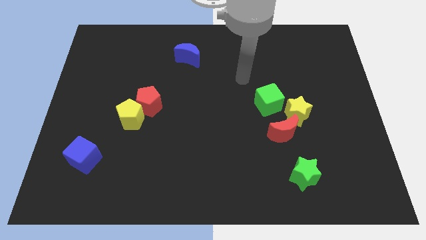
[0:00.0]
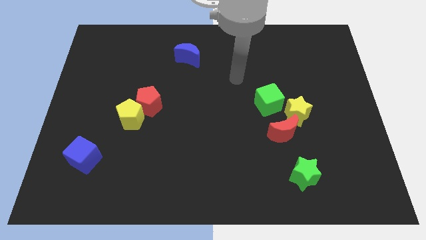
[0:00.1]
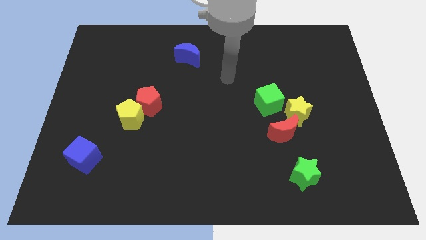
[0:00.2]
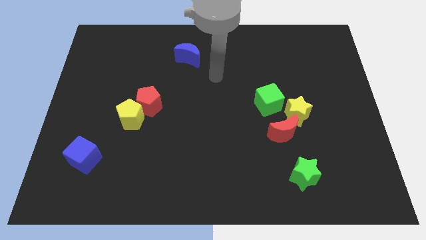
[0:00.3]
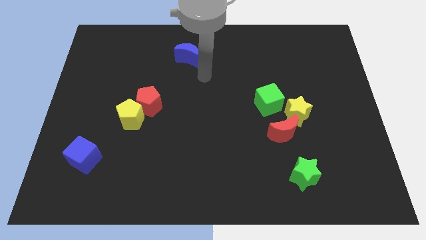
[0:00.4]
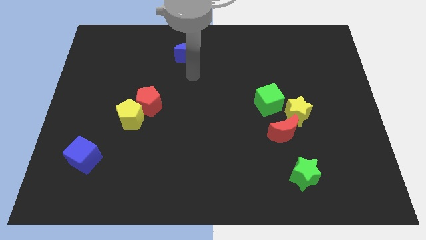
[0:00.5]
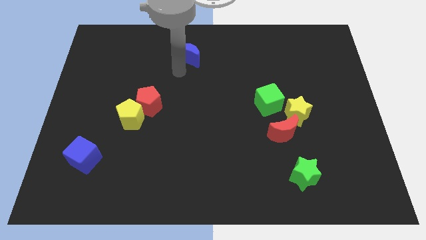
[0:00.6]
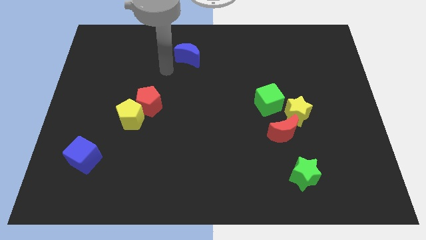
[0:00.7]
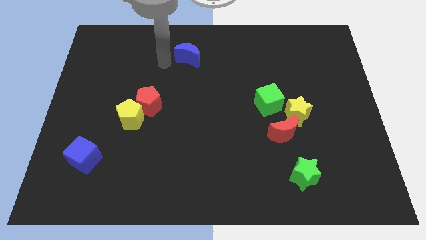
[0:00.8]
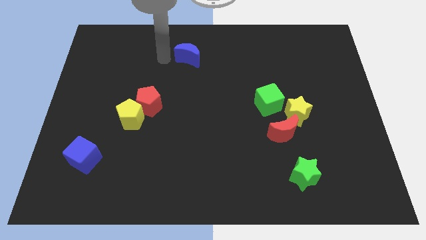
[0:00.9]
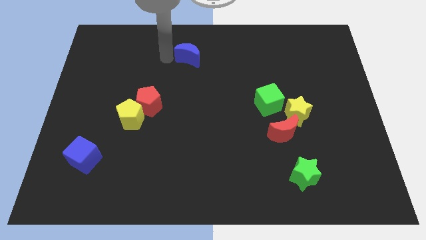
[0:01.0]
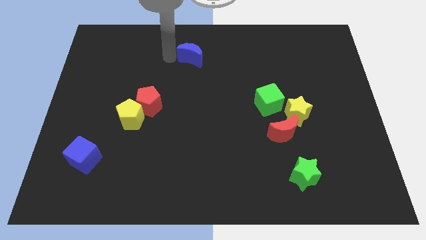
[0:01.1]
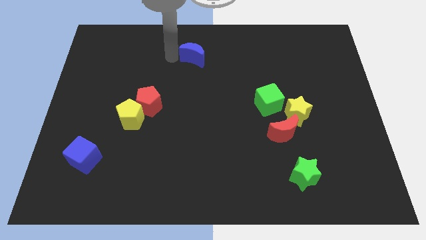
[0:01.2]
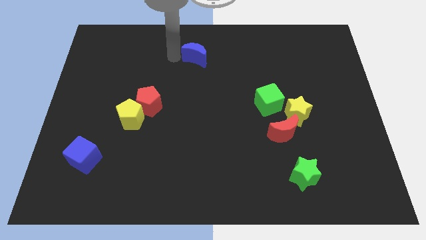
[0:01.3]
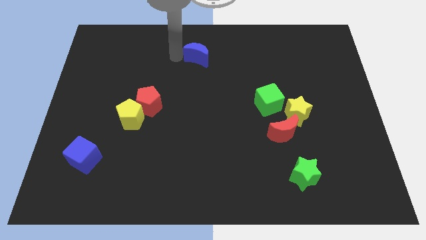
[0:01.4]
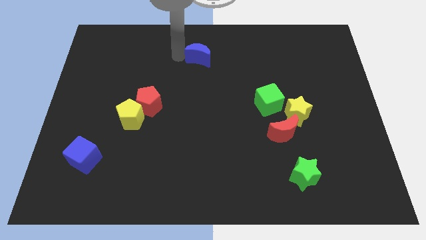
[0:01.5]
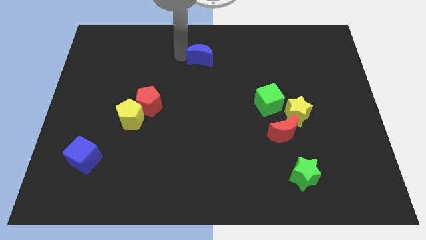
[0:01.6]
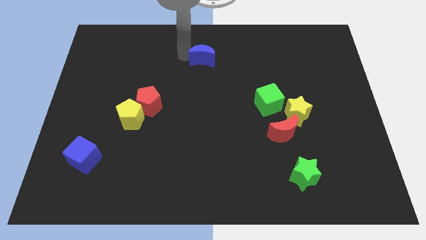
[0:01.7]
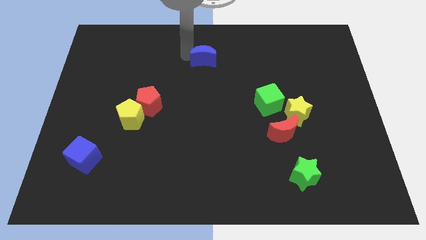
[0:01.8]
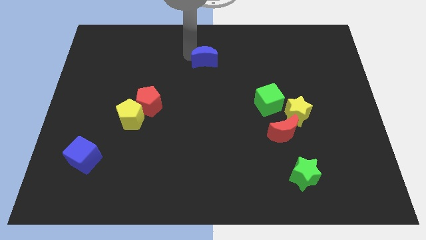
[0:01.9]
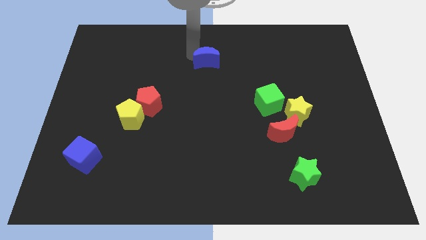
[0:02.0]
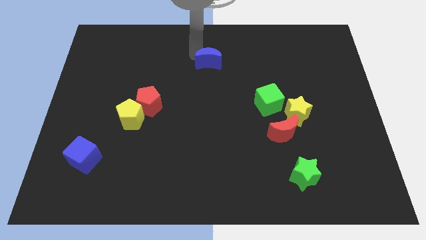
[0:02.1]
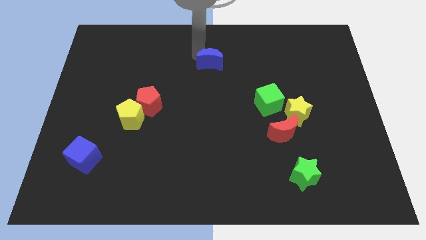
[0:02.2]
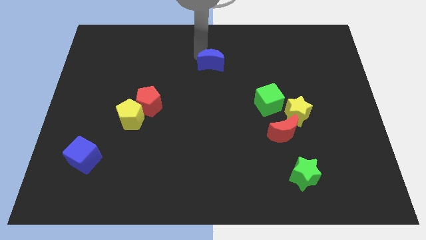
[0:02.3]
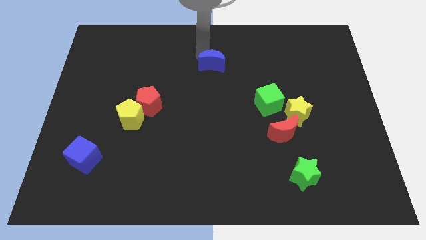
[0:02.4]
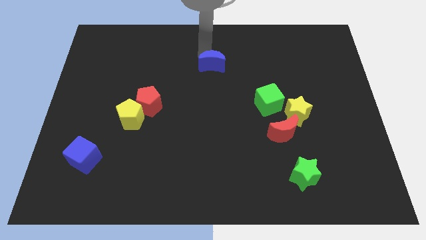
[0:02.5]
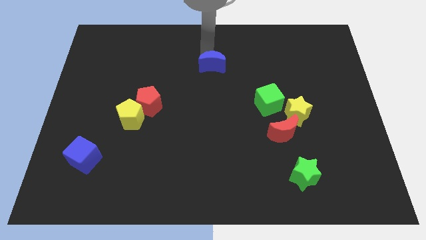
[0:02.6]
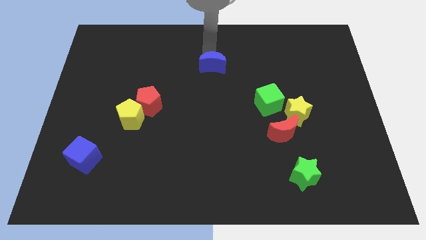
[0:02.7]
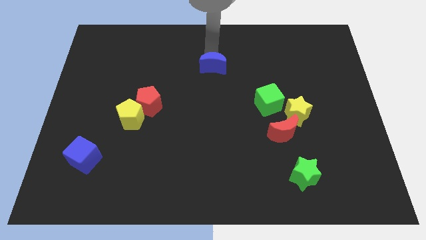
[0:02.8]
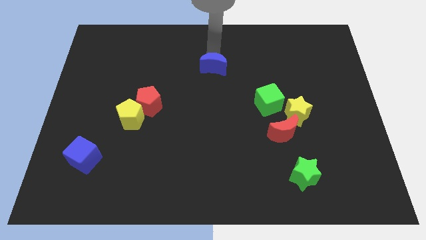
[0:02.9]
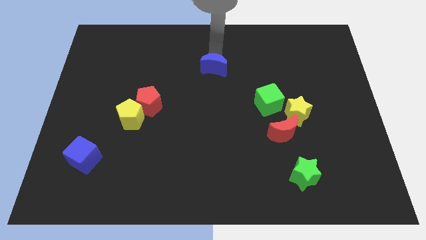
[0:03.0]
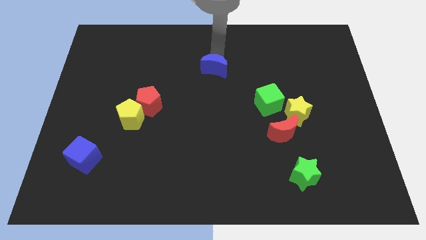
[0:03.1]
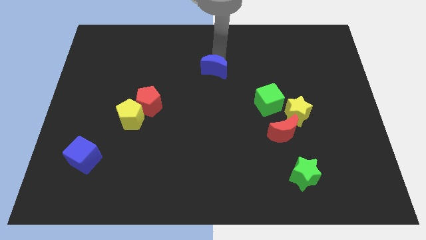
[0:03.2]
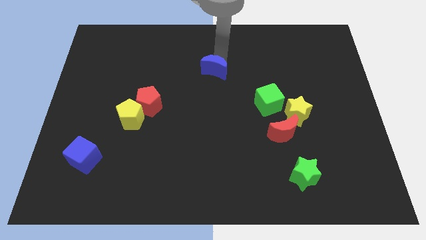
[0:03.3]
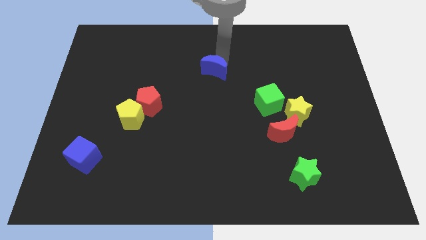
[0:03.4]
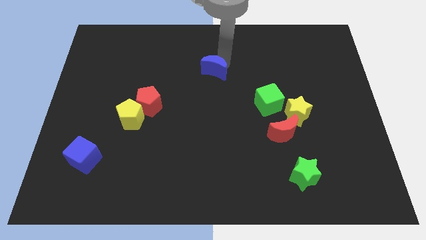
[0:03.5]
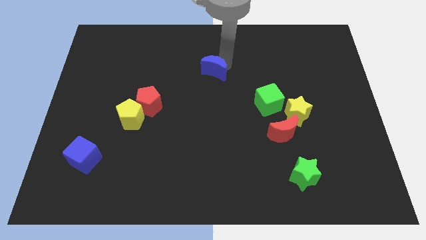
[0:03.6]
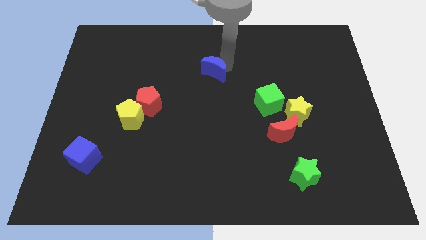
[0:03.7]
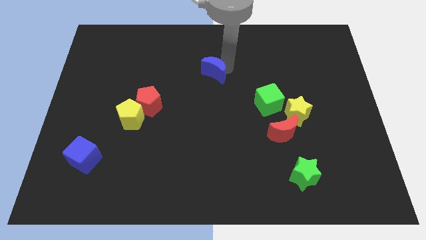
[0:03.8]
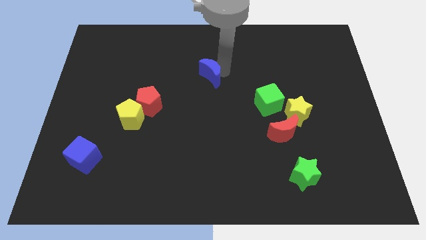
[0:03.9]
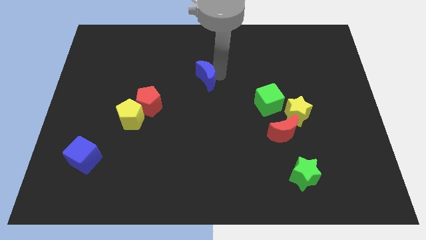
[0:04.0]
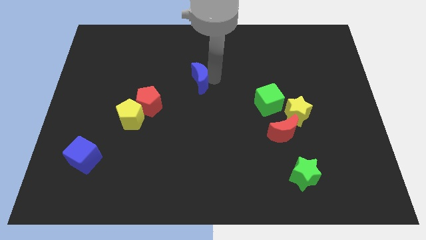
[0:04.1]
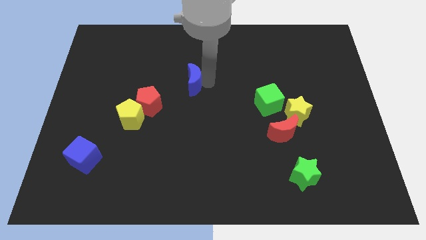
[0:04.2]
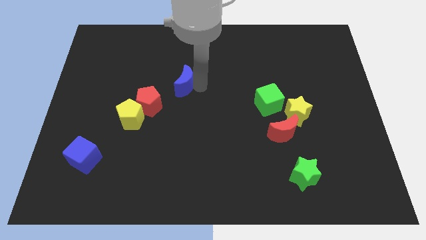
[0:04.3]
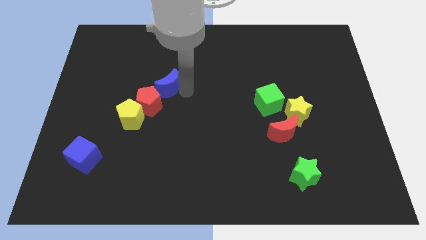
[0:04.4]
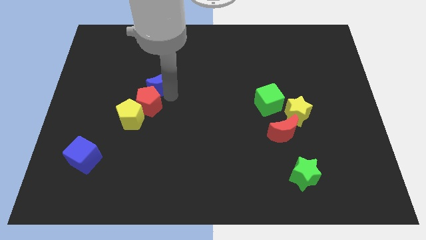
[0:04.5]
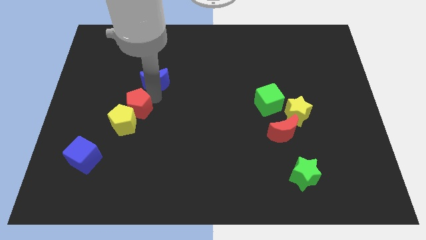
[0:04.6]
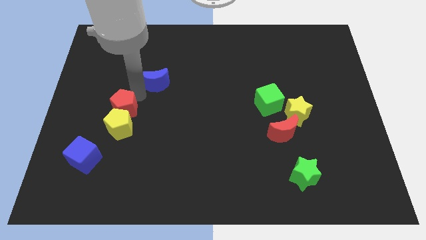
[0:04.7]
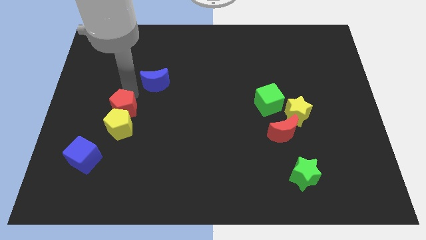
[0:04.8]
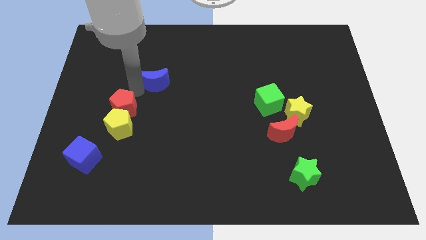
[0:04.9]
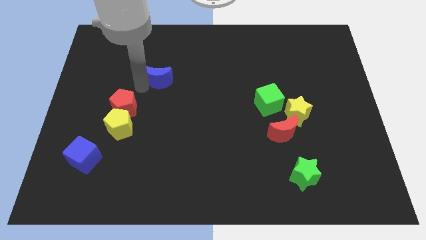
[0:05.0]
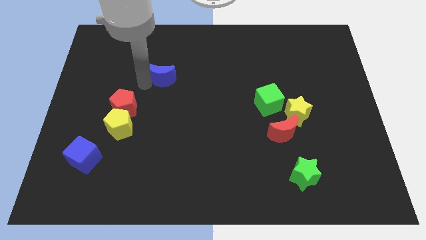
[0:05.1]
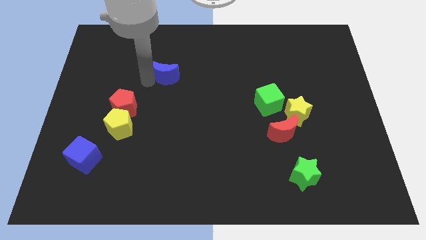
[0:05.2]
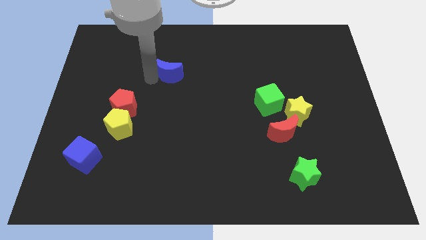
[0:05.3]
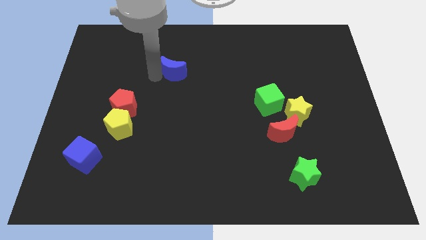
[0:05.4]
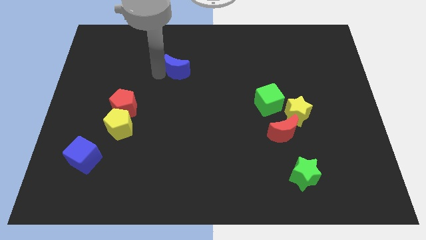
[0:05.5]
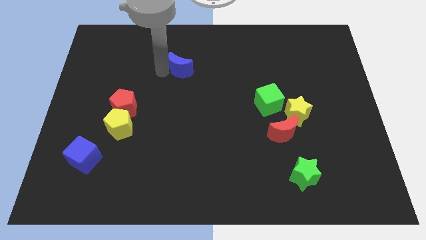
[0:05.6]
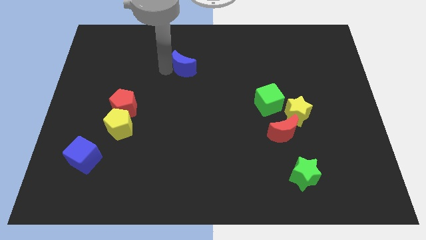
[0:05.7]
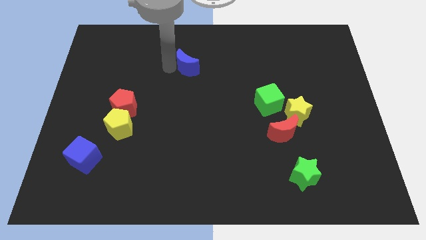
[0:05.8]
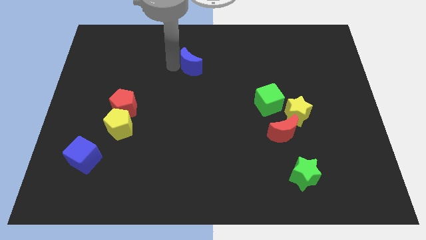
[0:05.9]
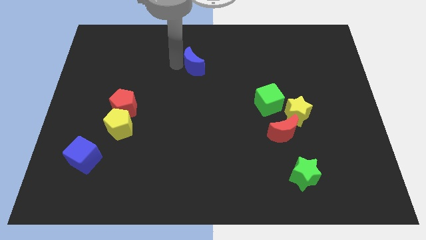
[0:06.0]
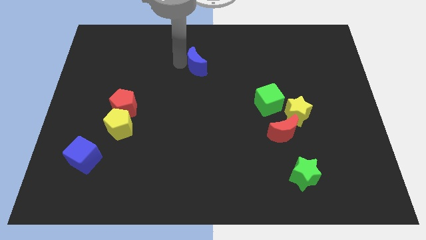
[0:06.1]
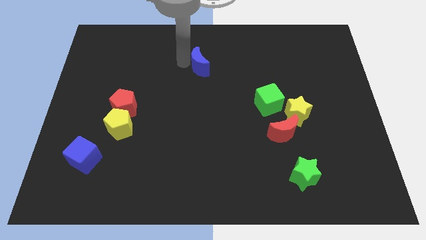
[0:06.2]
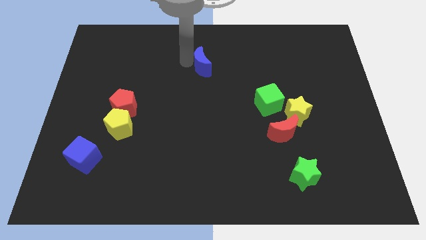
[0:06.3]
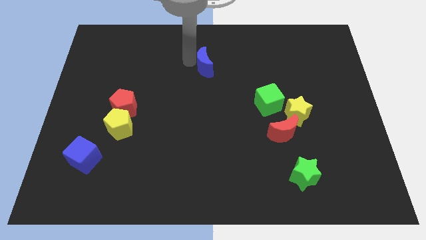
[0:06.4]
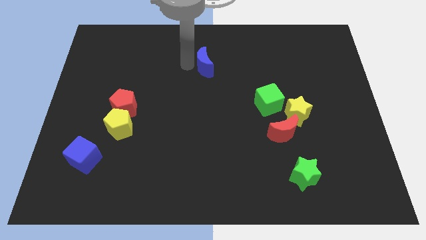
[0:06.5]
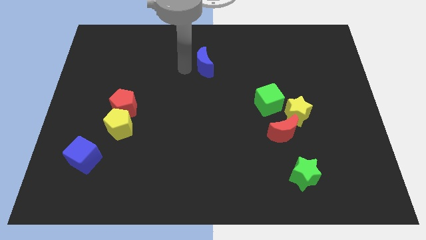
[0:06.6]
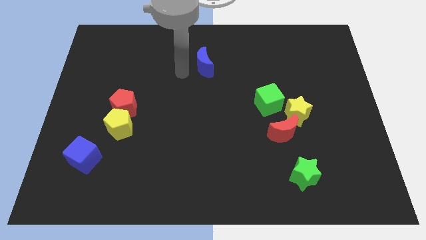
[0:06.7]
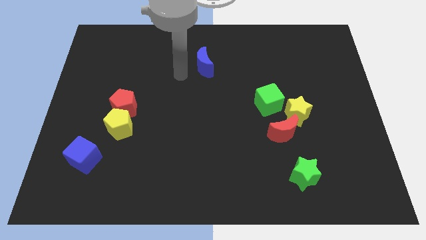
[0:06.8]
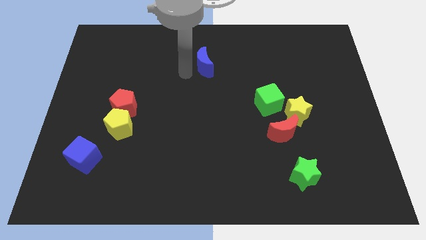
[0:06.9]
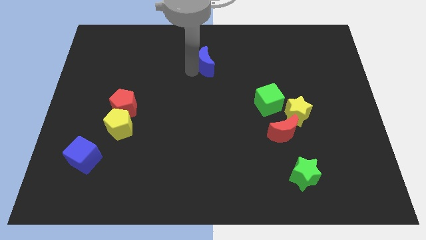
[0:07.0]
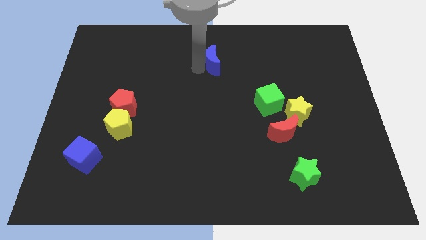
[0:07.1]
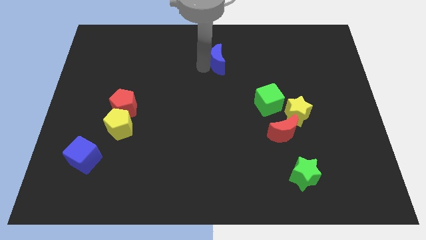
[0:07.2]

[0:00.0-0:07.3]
move the blue moon a bit to the right

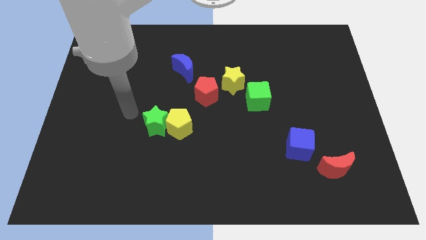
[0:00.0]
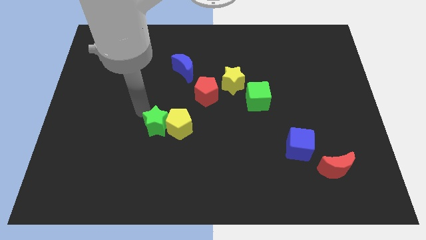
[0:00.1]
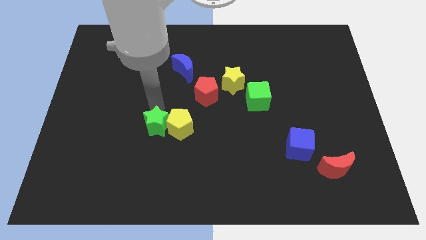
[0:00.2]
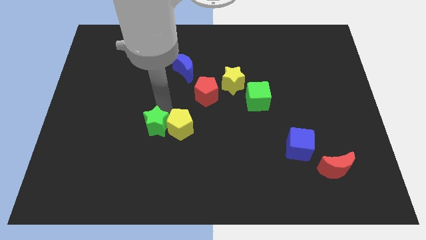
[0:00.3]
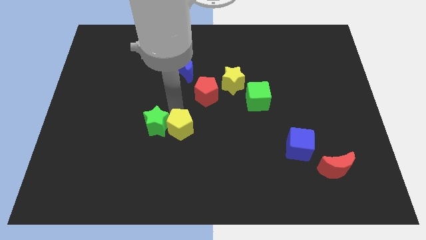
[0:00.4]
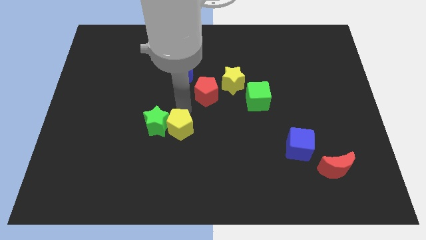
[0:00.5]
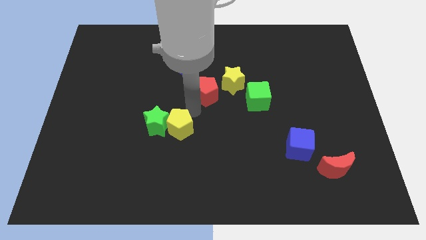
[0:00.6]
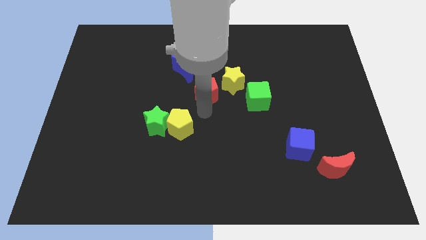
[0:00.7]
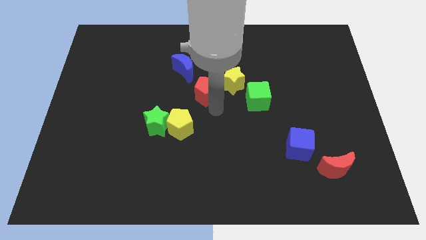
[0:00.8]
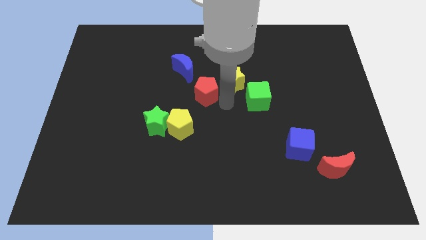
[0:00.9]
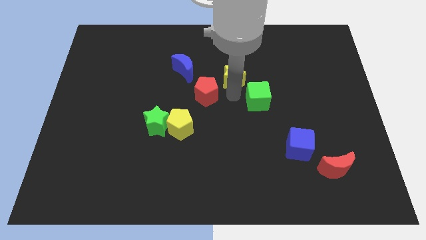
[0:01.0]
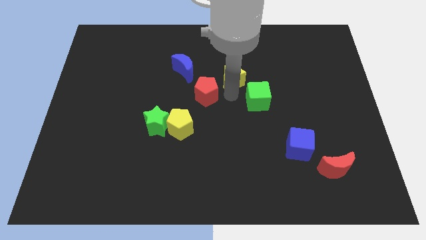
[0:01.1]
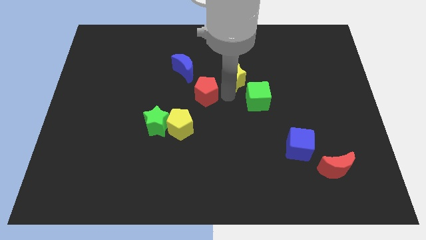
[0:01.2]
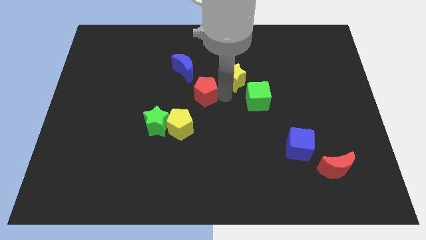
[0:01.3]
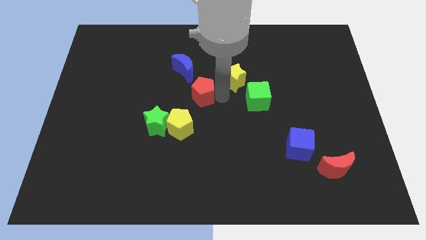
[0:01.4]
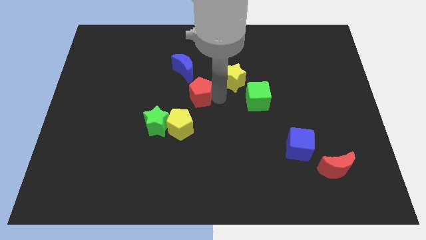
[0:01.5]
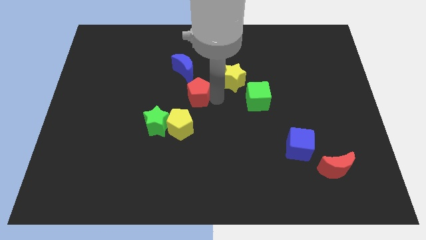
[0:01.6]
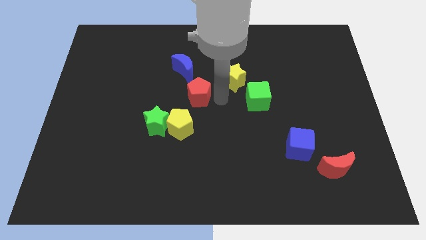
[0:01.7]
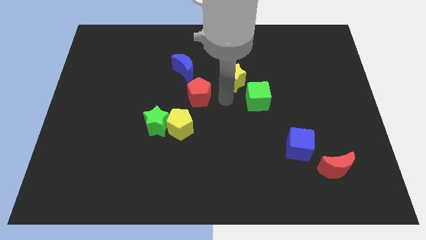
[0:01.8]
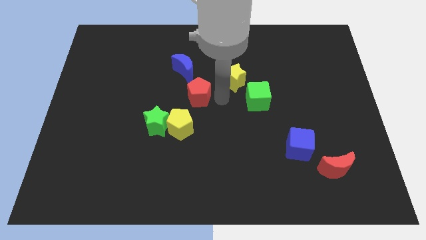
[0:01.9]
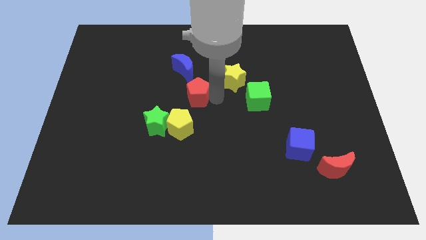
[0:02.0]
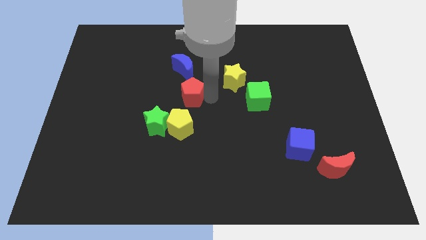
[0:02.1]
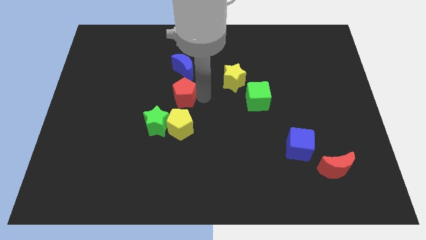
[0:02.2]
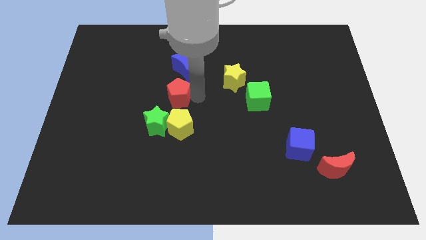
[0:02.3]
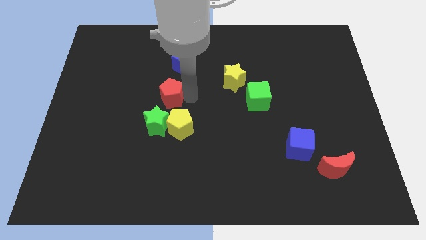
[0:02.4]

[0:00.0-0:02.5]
push the red pentagon a little bit to the left
